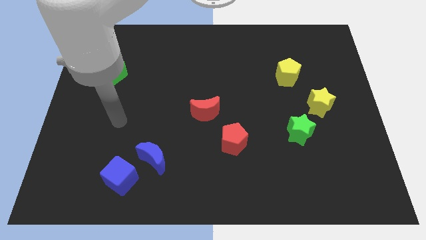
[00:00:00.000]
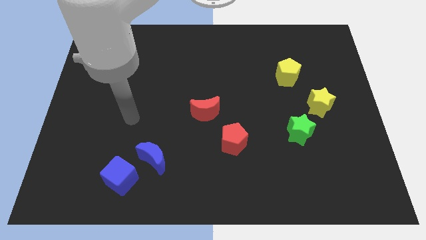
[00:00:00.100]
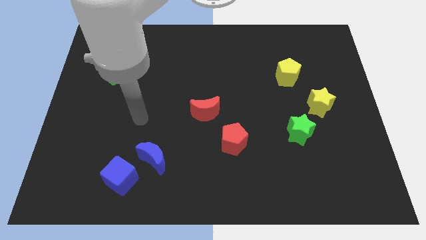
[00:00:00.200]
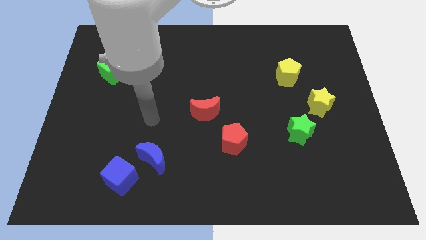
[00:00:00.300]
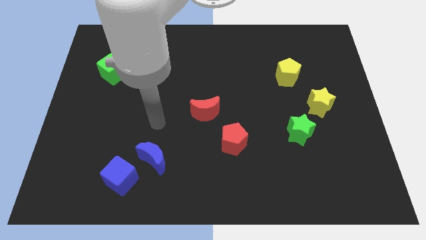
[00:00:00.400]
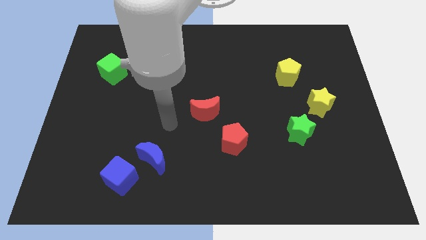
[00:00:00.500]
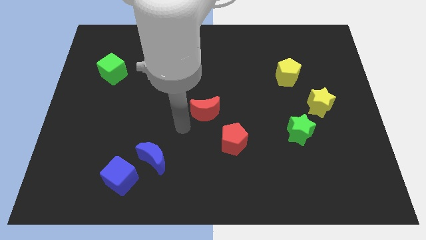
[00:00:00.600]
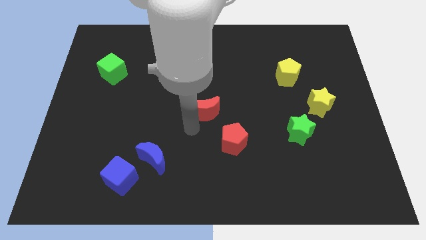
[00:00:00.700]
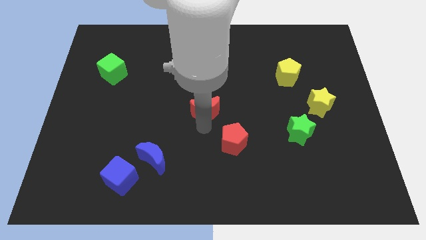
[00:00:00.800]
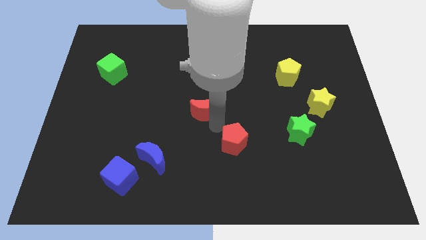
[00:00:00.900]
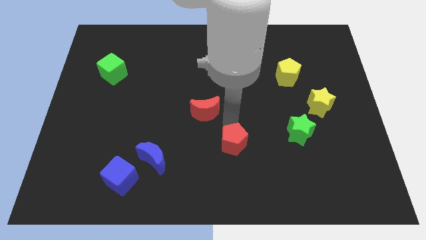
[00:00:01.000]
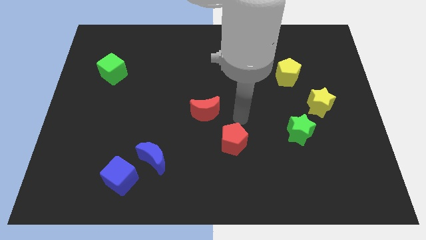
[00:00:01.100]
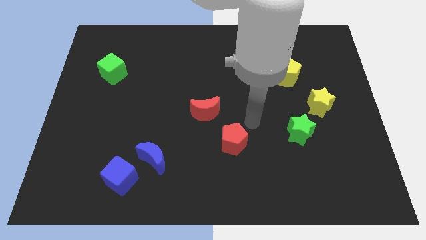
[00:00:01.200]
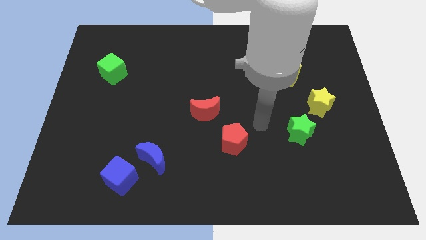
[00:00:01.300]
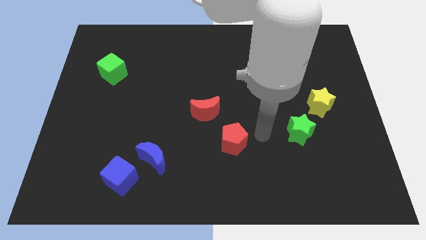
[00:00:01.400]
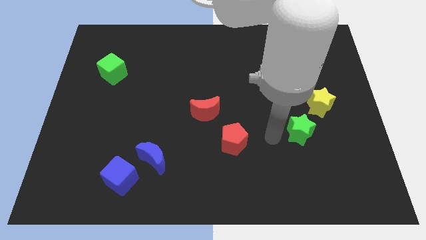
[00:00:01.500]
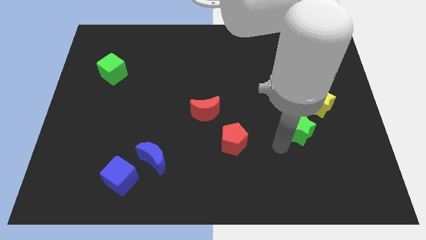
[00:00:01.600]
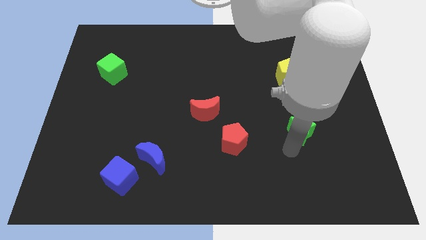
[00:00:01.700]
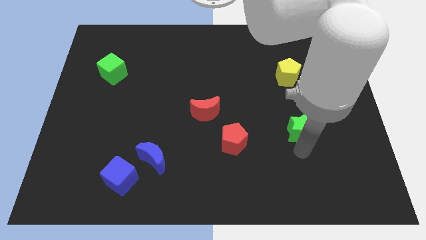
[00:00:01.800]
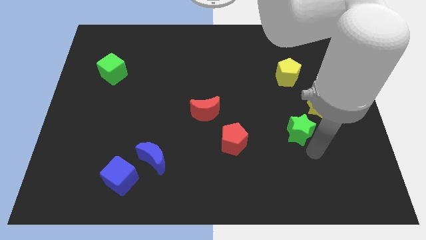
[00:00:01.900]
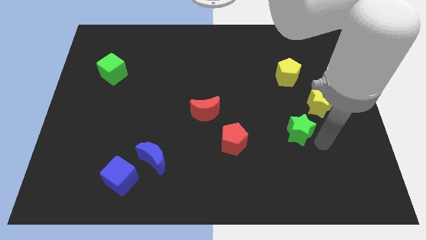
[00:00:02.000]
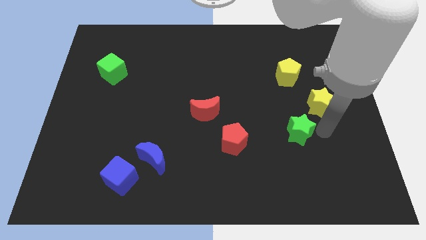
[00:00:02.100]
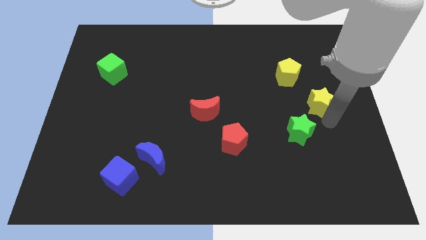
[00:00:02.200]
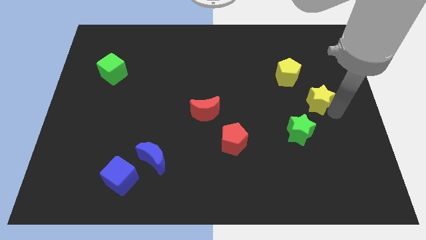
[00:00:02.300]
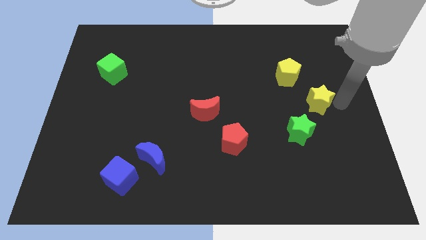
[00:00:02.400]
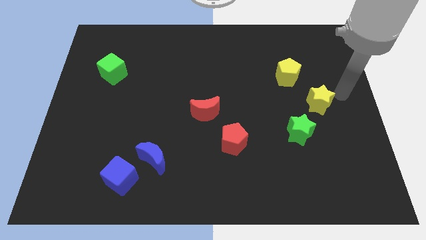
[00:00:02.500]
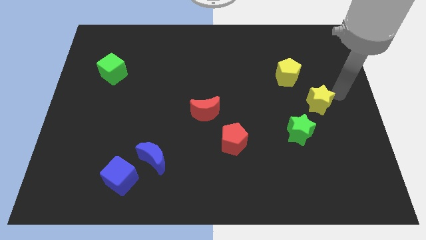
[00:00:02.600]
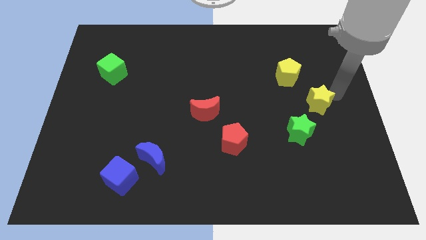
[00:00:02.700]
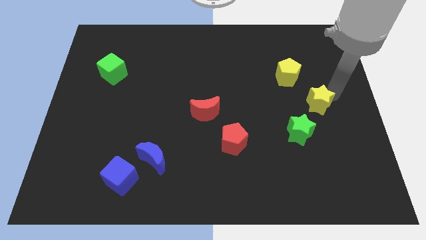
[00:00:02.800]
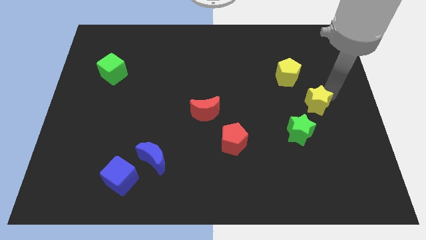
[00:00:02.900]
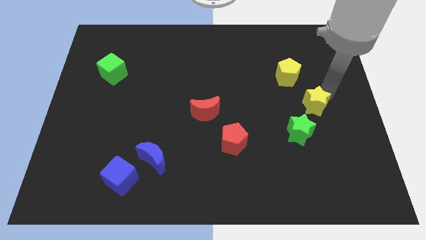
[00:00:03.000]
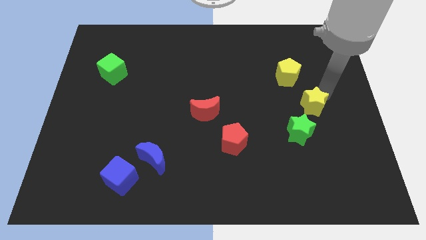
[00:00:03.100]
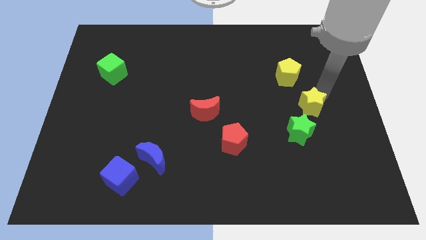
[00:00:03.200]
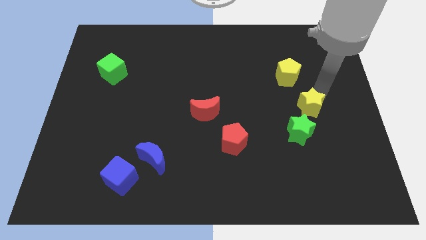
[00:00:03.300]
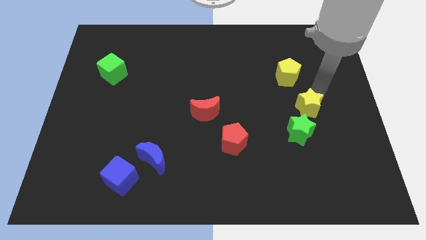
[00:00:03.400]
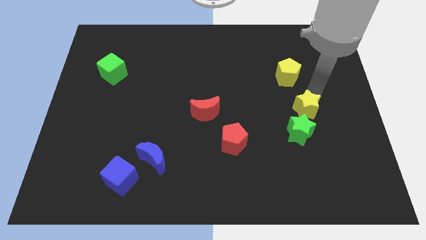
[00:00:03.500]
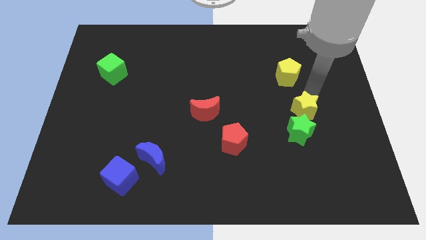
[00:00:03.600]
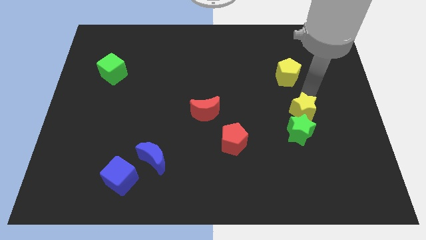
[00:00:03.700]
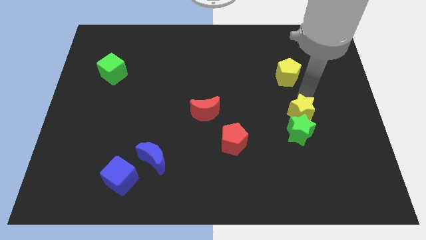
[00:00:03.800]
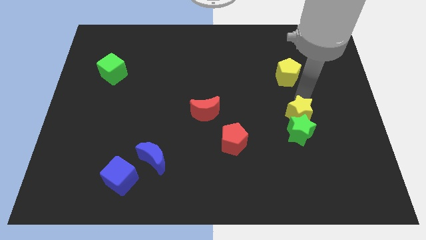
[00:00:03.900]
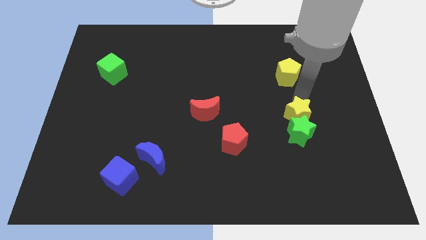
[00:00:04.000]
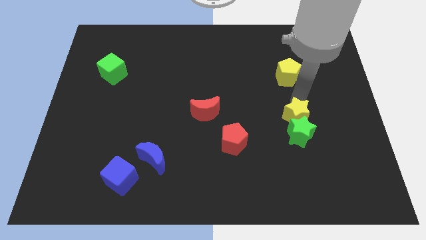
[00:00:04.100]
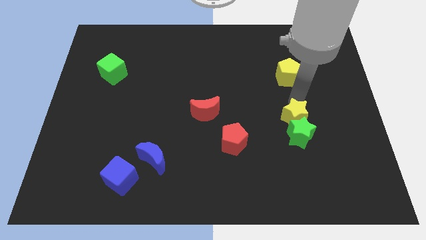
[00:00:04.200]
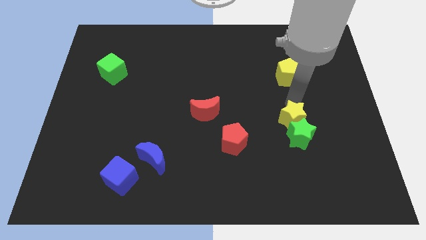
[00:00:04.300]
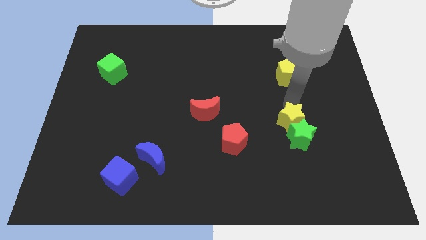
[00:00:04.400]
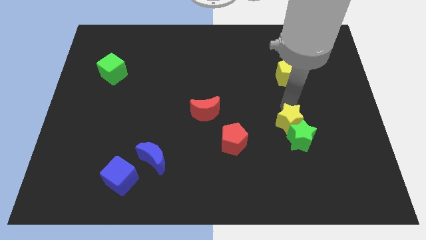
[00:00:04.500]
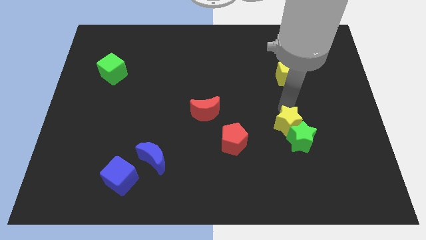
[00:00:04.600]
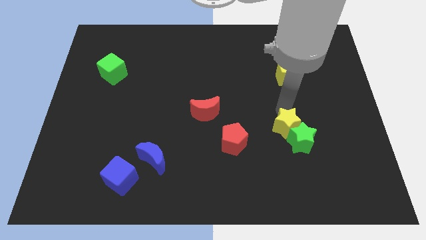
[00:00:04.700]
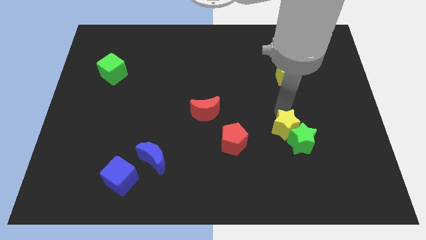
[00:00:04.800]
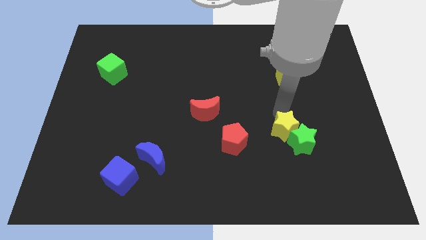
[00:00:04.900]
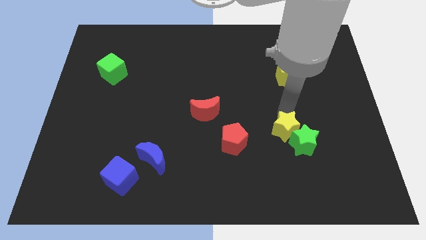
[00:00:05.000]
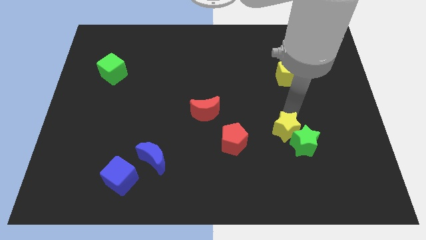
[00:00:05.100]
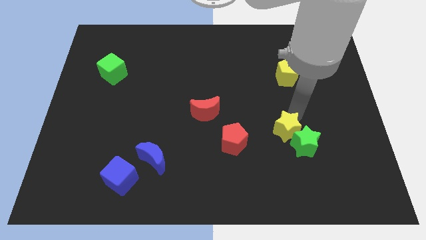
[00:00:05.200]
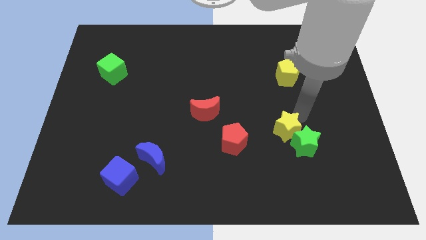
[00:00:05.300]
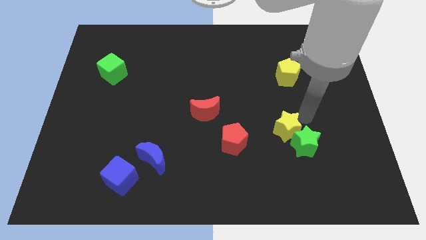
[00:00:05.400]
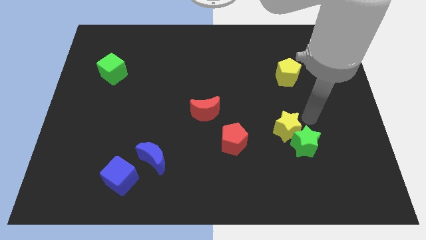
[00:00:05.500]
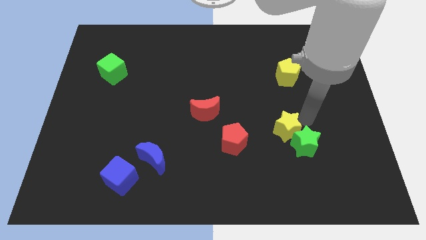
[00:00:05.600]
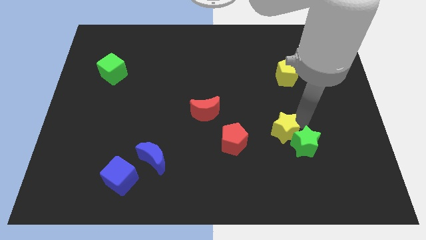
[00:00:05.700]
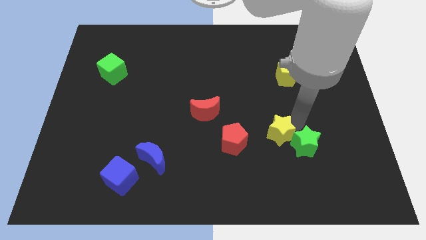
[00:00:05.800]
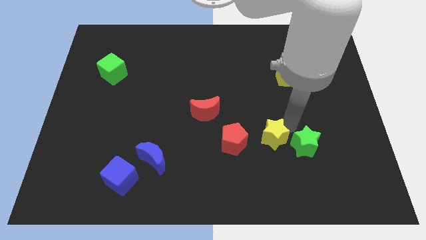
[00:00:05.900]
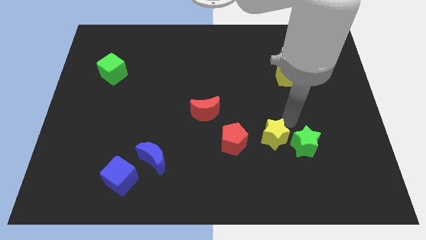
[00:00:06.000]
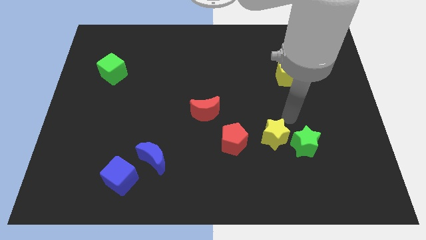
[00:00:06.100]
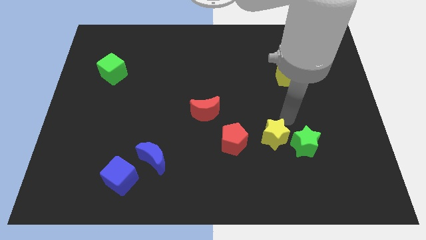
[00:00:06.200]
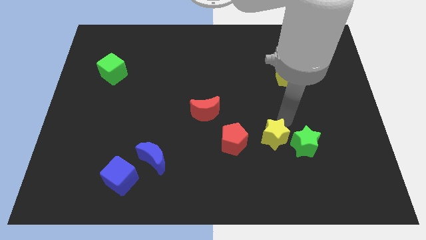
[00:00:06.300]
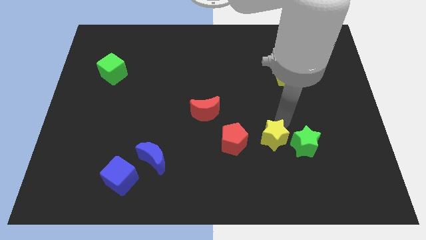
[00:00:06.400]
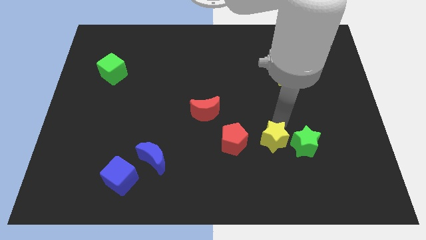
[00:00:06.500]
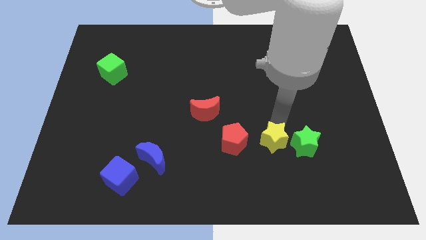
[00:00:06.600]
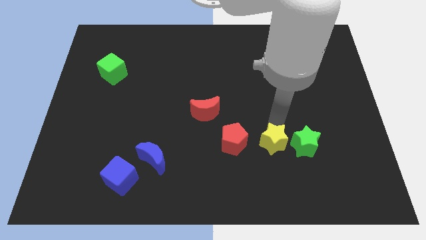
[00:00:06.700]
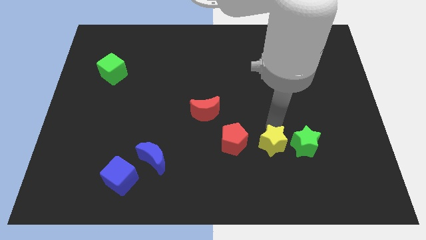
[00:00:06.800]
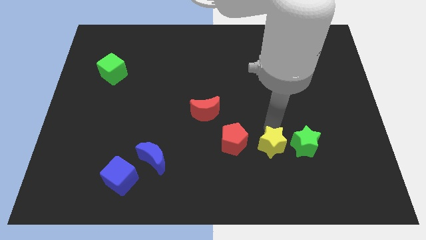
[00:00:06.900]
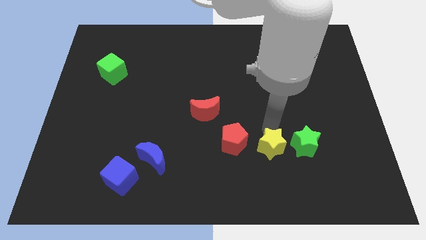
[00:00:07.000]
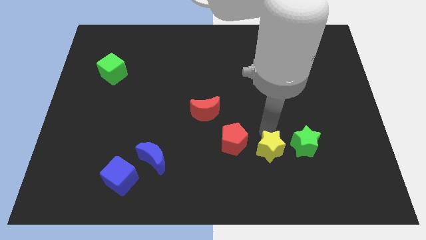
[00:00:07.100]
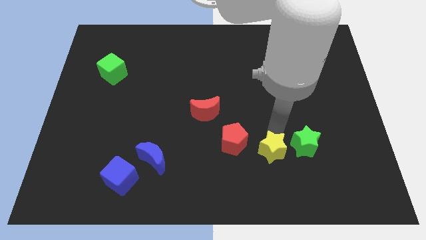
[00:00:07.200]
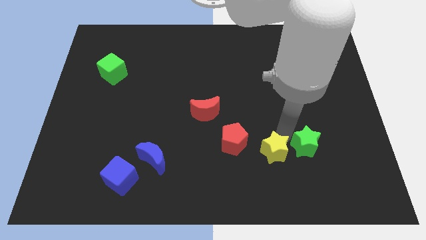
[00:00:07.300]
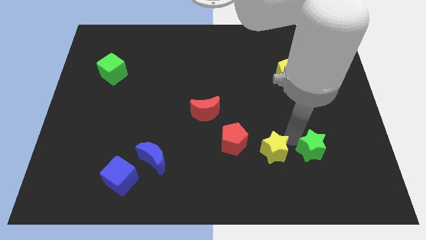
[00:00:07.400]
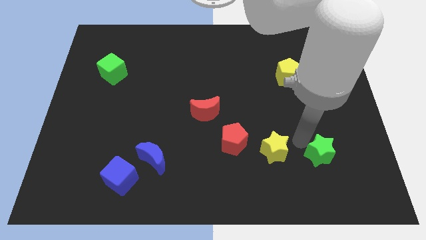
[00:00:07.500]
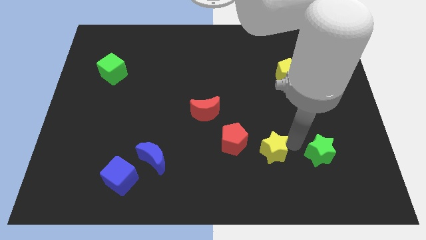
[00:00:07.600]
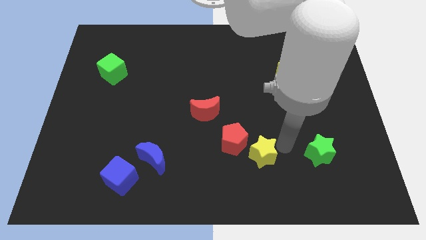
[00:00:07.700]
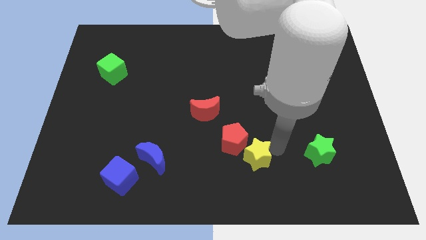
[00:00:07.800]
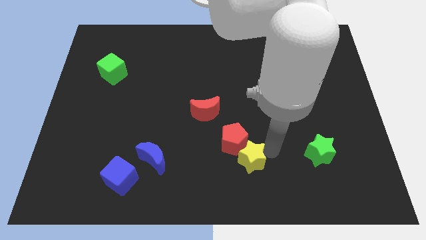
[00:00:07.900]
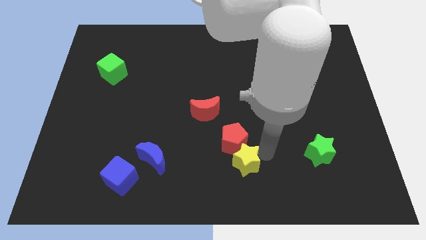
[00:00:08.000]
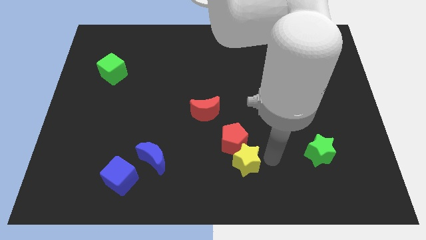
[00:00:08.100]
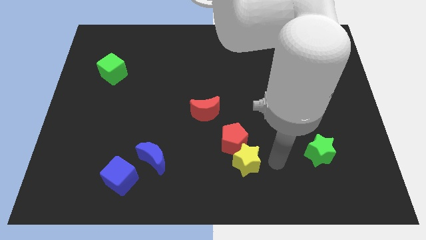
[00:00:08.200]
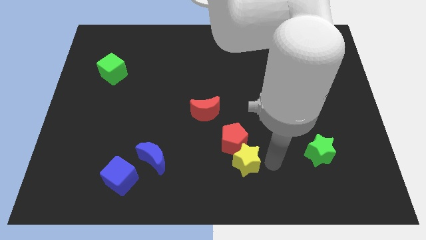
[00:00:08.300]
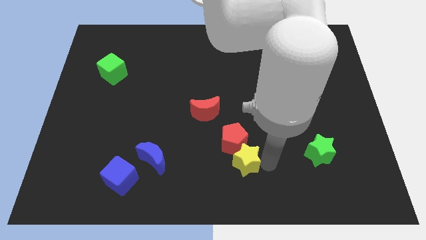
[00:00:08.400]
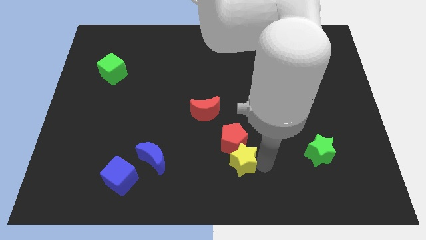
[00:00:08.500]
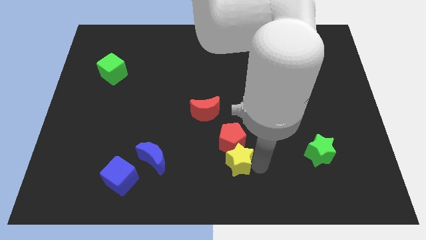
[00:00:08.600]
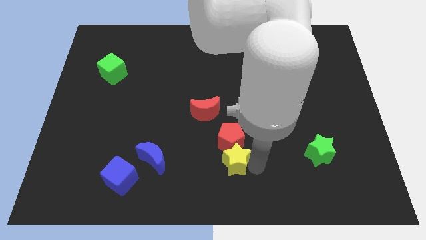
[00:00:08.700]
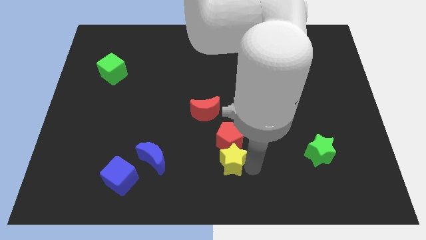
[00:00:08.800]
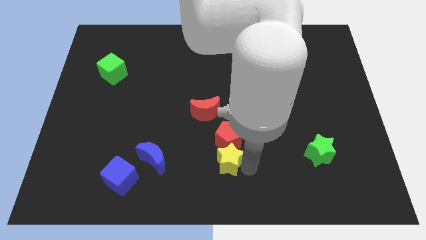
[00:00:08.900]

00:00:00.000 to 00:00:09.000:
put the yellow star to the right side of the blue moon
